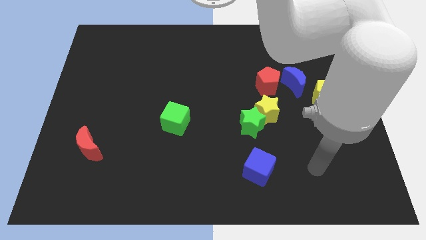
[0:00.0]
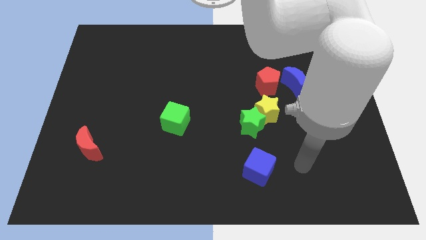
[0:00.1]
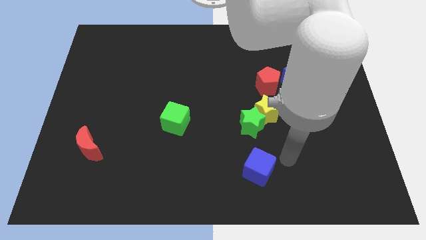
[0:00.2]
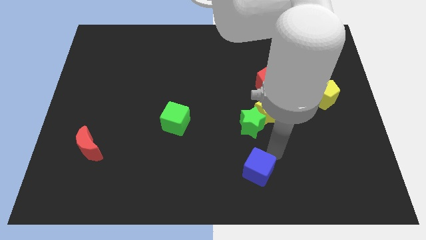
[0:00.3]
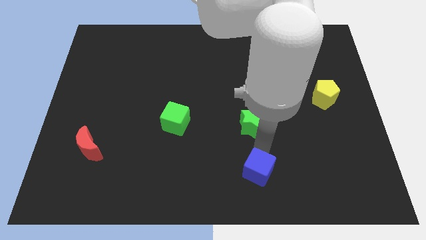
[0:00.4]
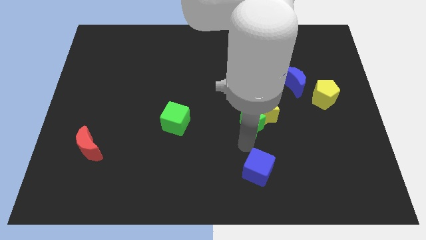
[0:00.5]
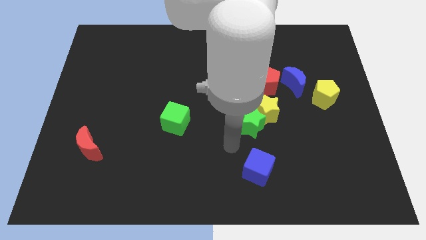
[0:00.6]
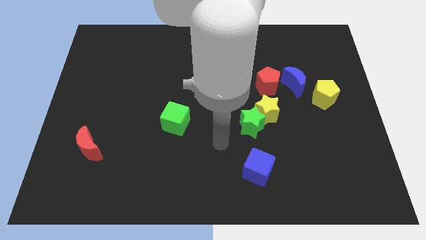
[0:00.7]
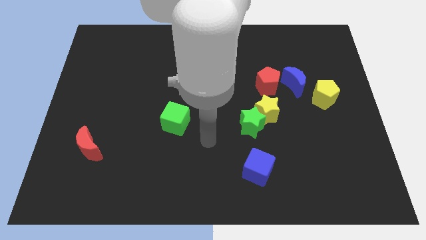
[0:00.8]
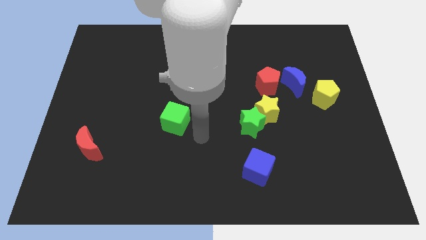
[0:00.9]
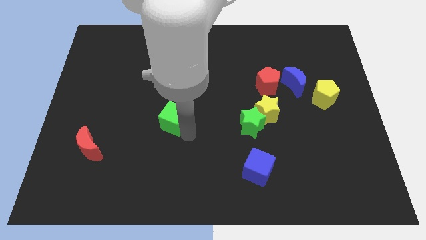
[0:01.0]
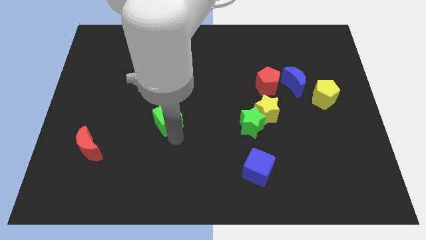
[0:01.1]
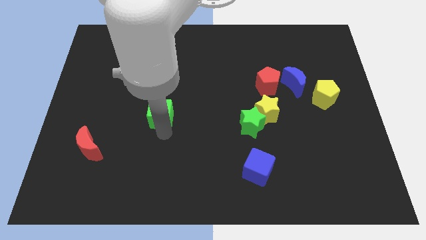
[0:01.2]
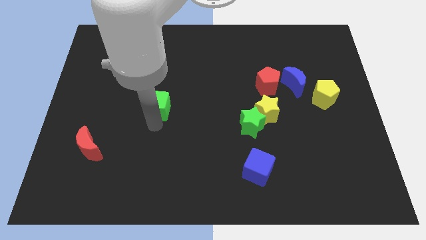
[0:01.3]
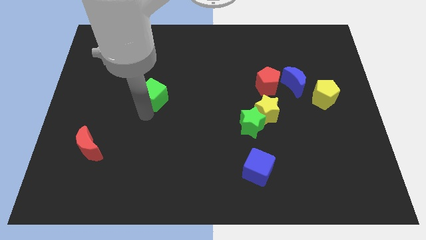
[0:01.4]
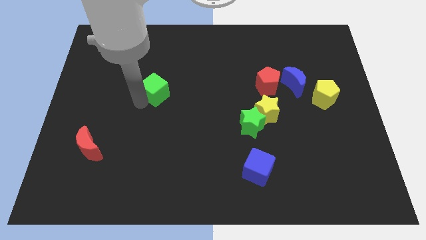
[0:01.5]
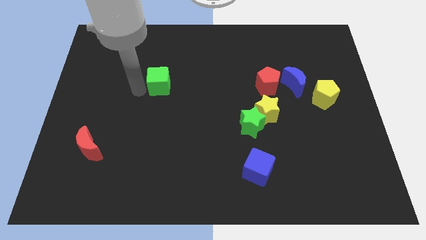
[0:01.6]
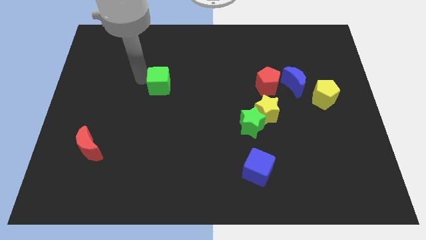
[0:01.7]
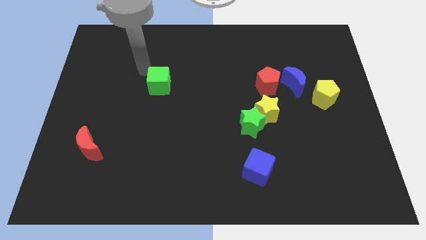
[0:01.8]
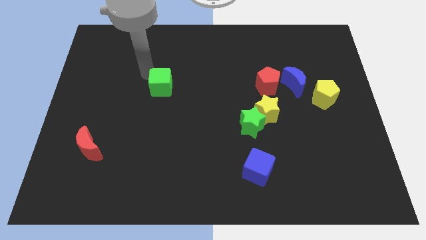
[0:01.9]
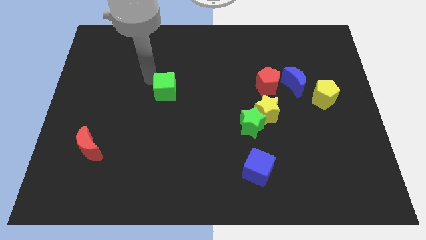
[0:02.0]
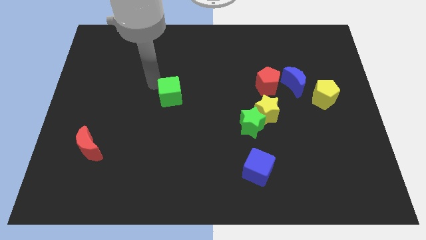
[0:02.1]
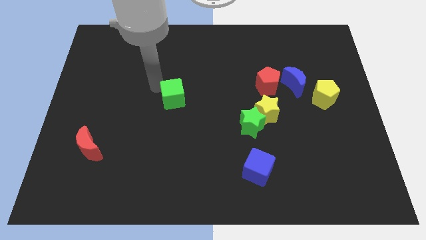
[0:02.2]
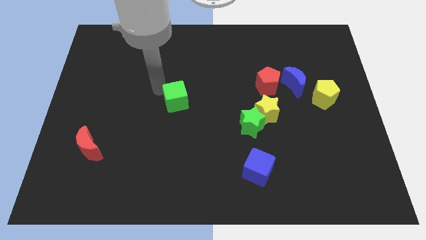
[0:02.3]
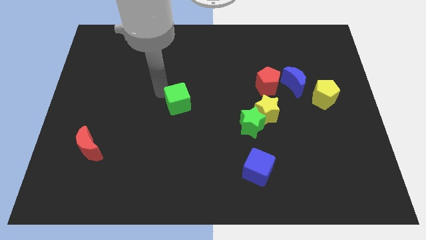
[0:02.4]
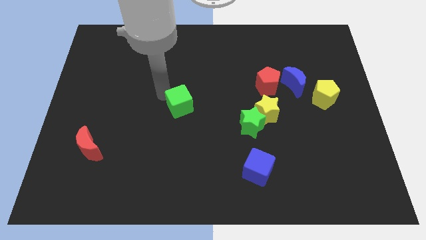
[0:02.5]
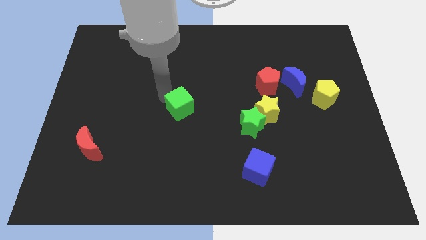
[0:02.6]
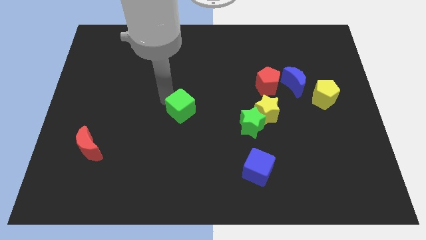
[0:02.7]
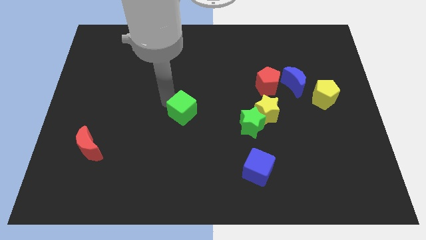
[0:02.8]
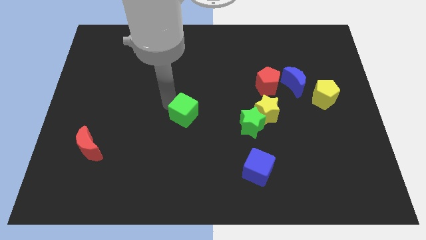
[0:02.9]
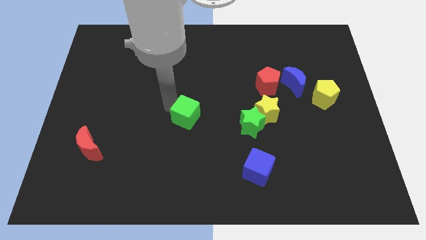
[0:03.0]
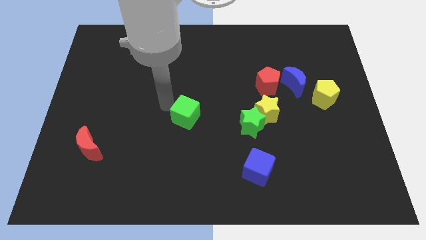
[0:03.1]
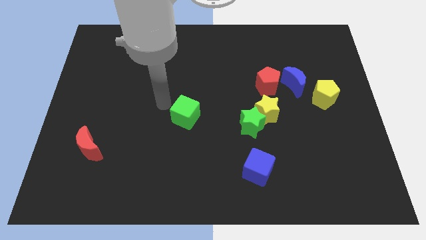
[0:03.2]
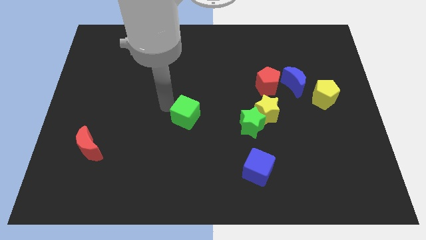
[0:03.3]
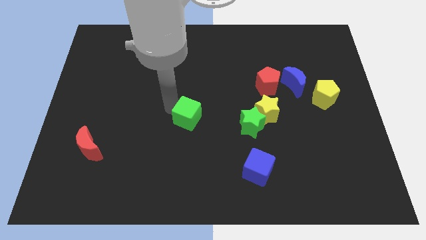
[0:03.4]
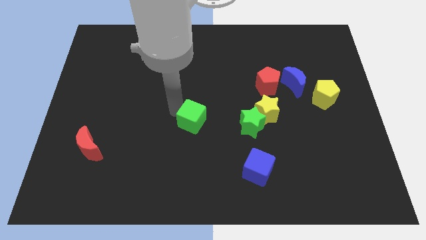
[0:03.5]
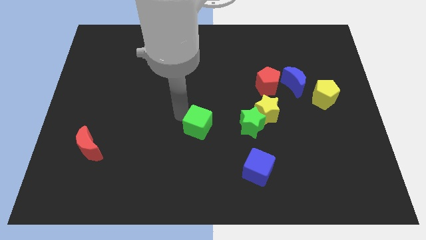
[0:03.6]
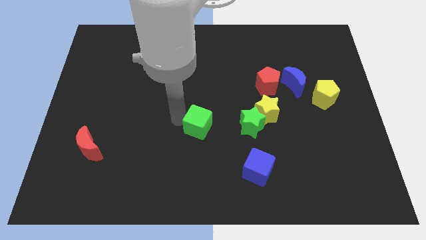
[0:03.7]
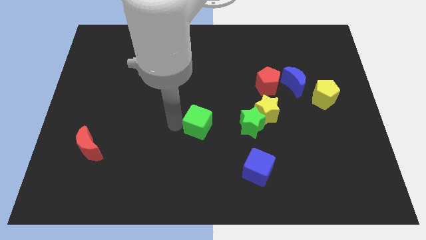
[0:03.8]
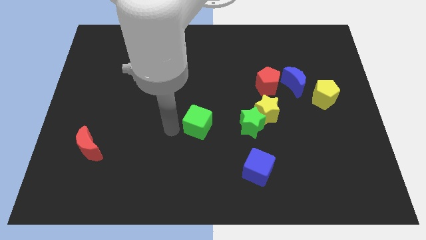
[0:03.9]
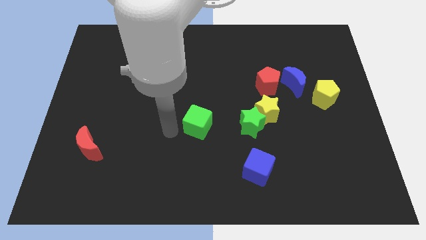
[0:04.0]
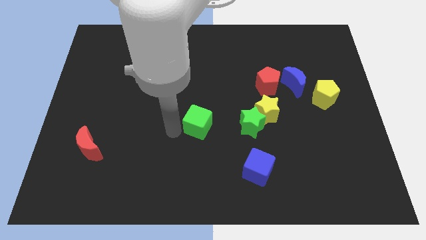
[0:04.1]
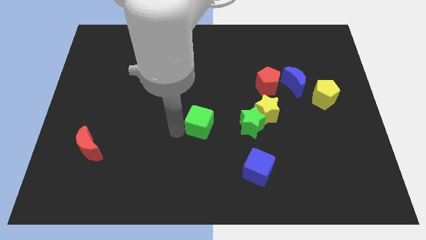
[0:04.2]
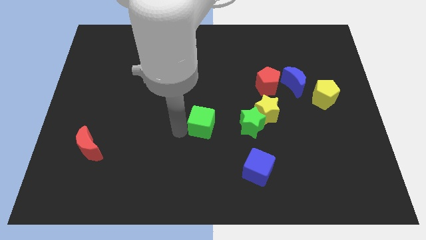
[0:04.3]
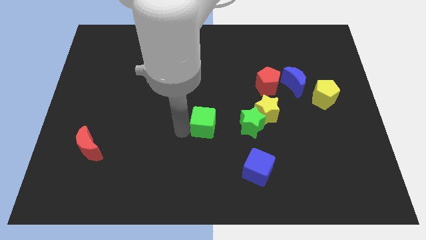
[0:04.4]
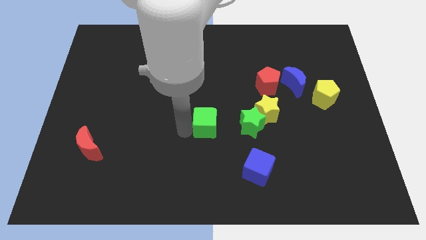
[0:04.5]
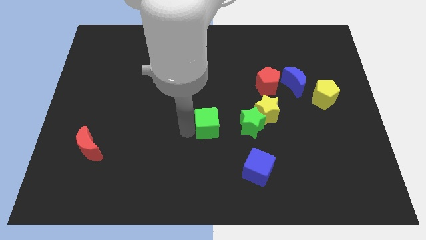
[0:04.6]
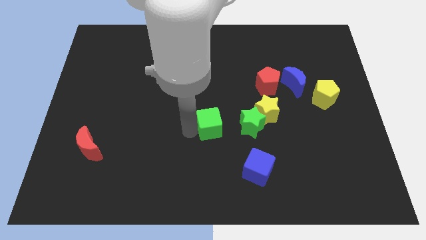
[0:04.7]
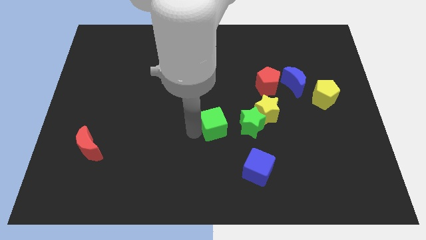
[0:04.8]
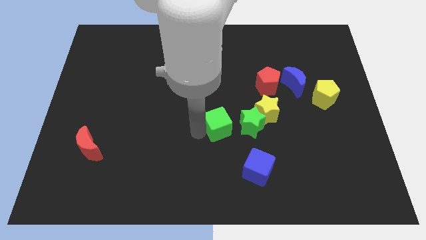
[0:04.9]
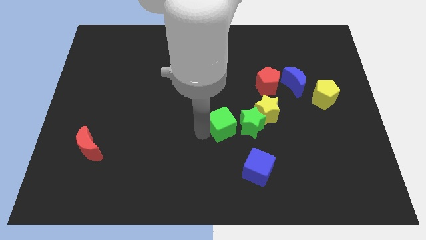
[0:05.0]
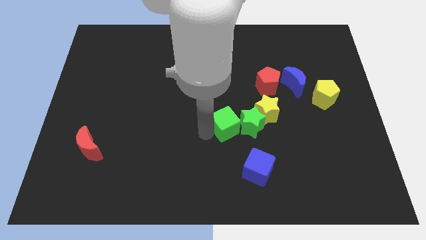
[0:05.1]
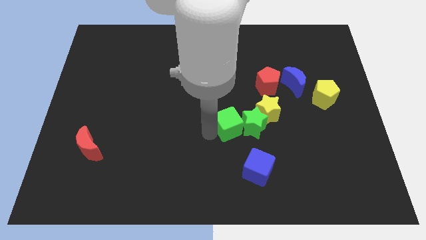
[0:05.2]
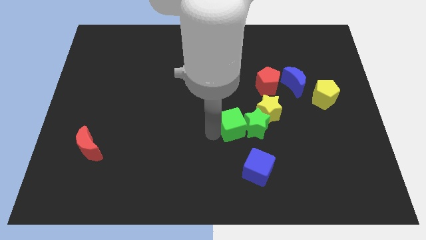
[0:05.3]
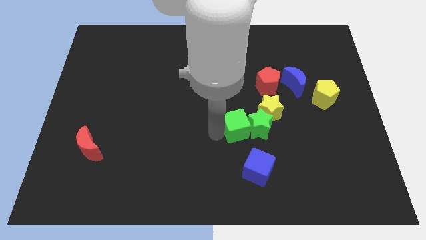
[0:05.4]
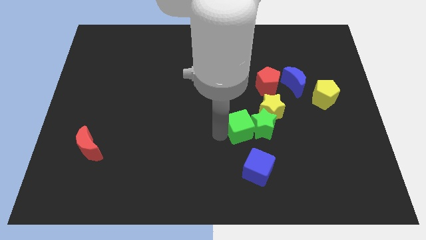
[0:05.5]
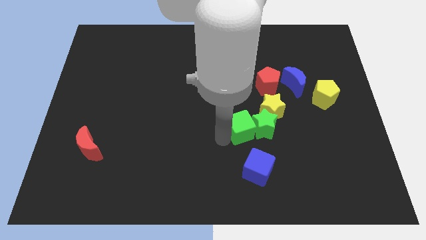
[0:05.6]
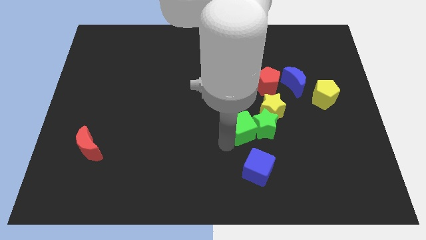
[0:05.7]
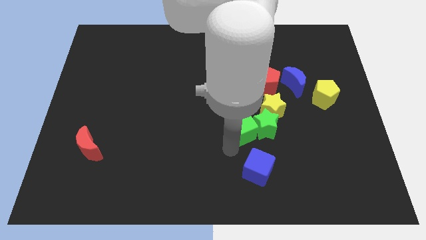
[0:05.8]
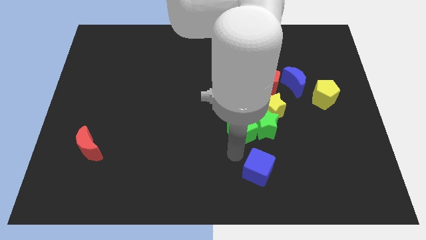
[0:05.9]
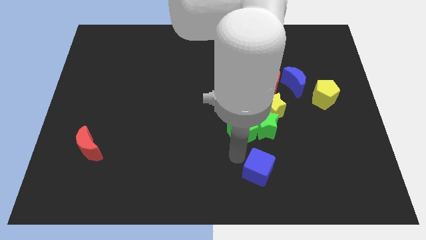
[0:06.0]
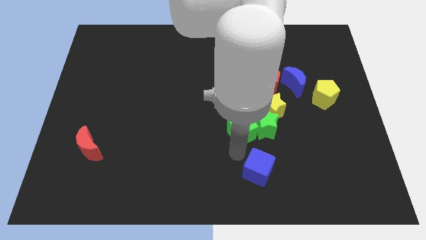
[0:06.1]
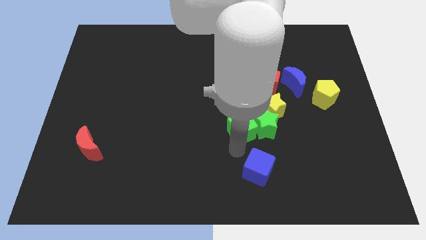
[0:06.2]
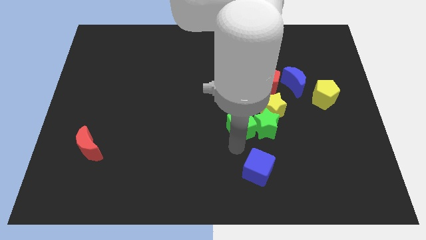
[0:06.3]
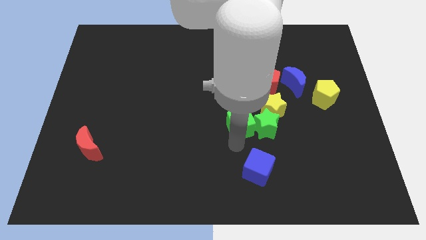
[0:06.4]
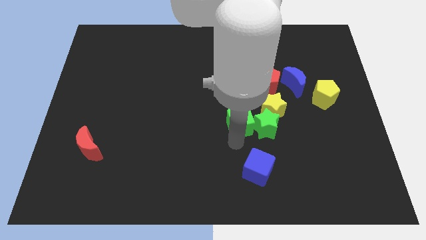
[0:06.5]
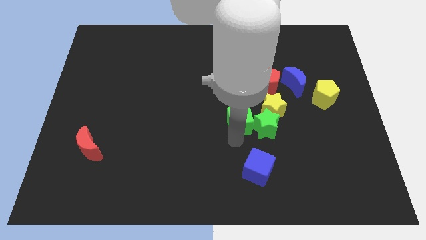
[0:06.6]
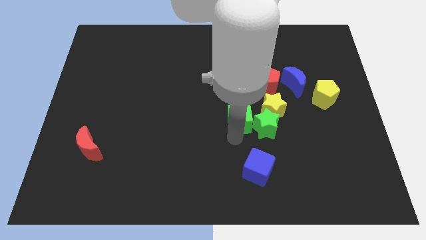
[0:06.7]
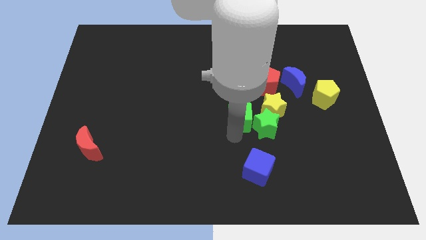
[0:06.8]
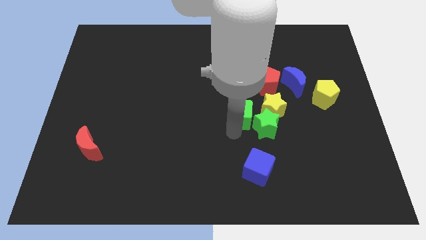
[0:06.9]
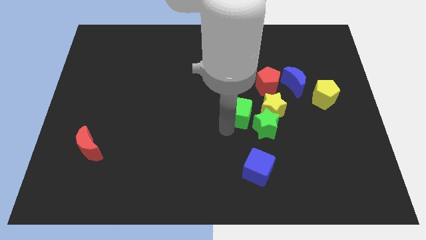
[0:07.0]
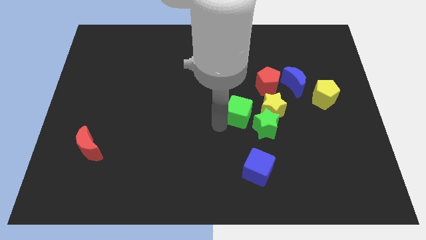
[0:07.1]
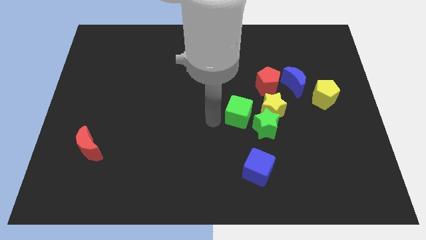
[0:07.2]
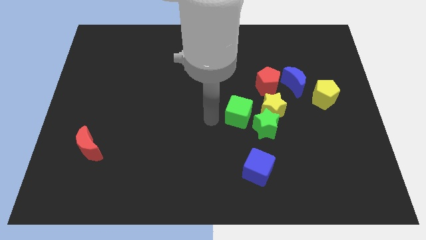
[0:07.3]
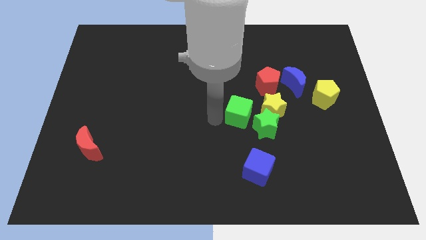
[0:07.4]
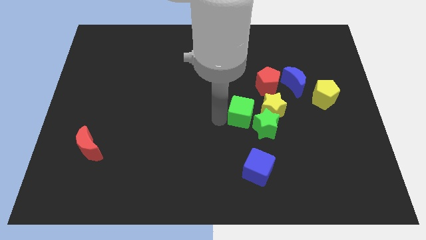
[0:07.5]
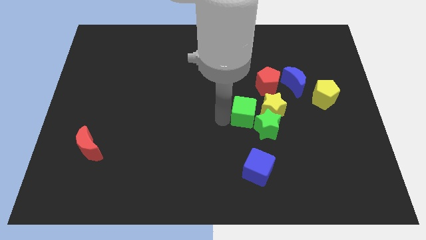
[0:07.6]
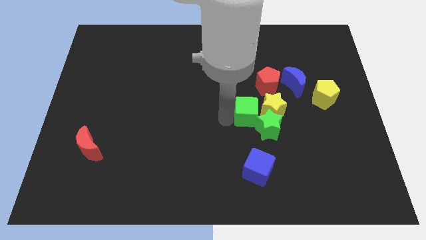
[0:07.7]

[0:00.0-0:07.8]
slide the green cube next to the yellow star
